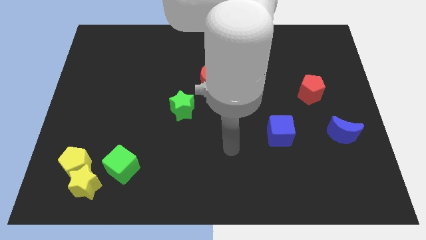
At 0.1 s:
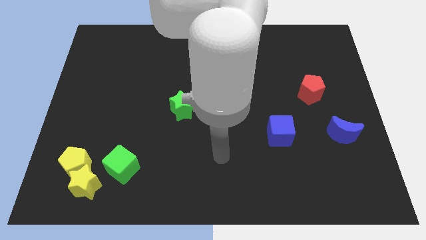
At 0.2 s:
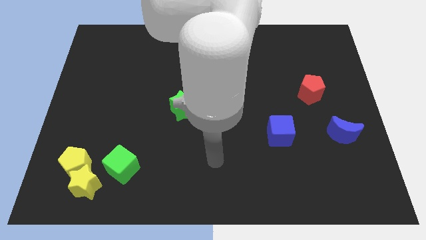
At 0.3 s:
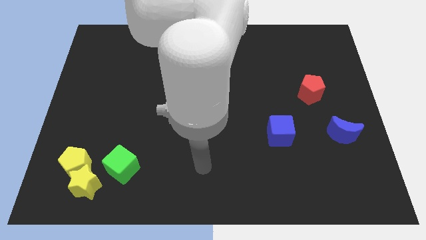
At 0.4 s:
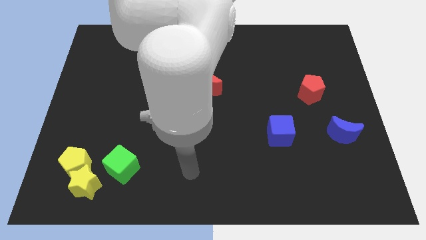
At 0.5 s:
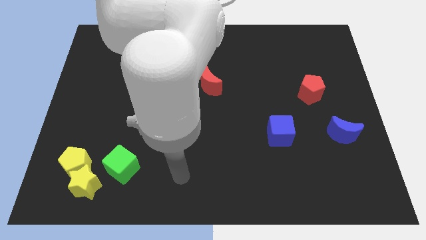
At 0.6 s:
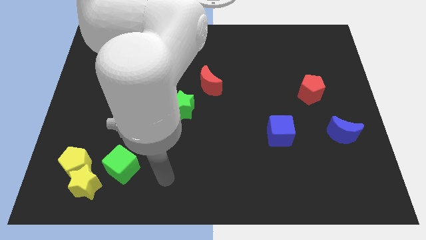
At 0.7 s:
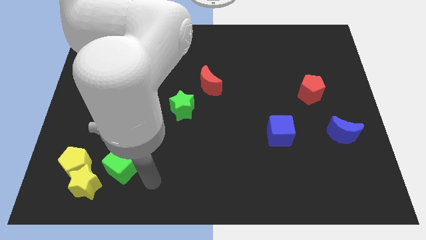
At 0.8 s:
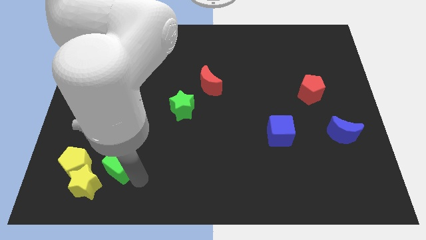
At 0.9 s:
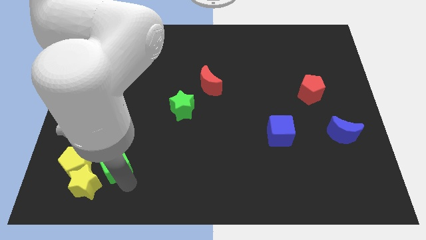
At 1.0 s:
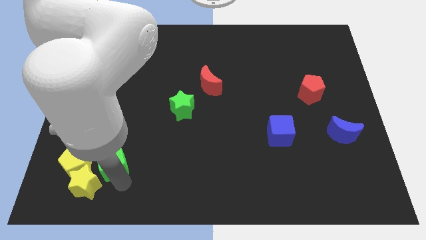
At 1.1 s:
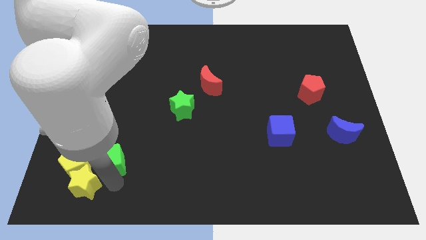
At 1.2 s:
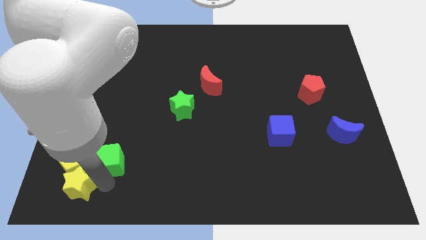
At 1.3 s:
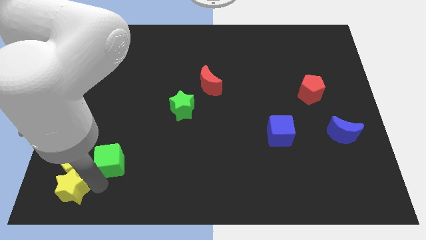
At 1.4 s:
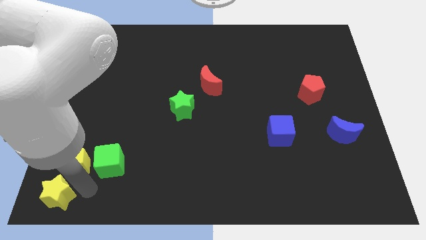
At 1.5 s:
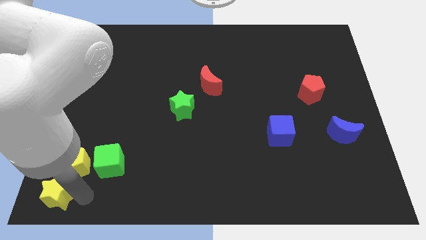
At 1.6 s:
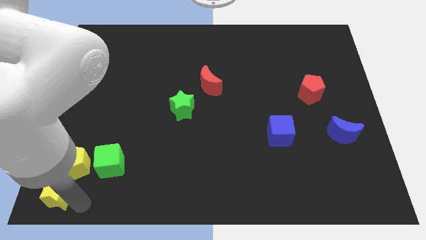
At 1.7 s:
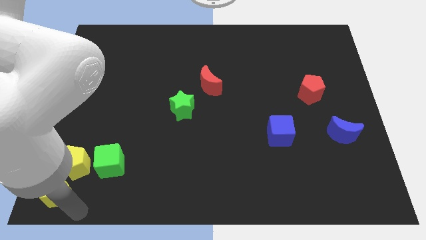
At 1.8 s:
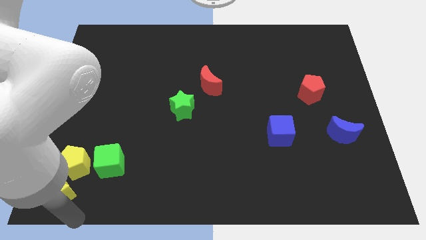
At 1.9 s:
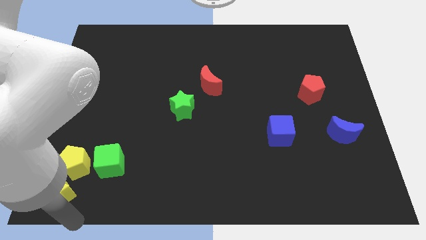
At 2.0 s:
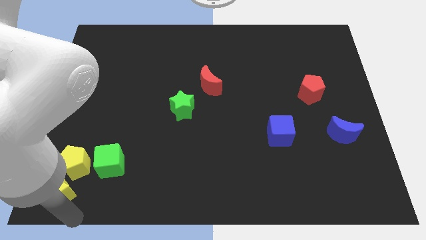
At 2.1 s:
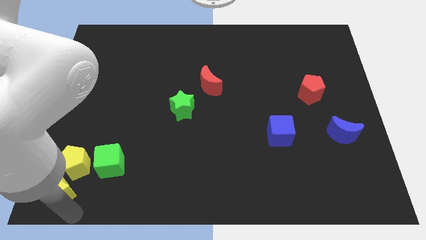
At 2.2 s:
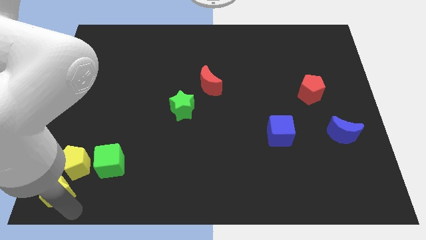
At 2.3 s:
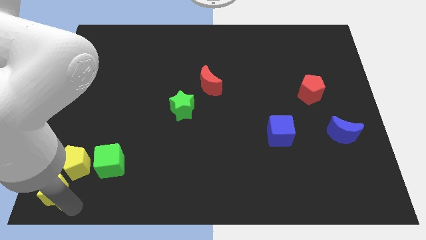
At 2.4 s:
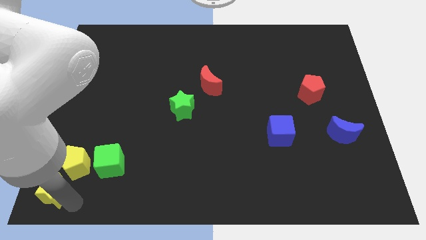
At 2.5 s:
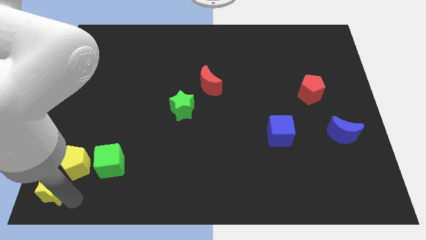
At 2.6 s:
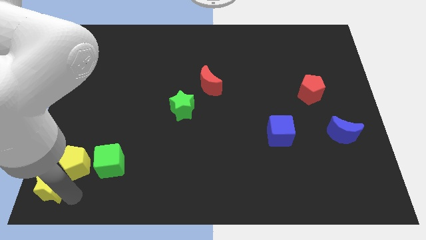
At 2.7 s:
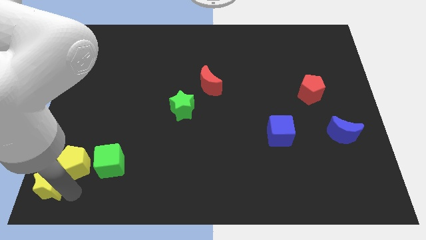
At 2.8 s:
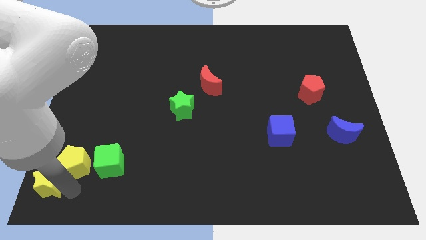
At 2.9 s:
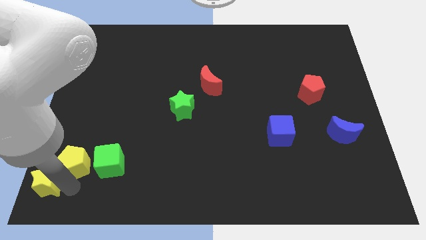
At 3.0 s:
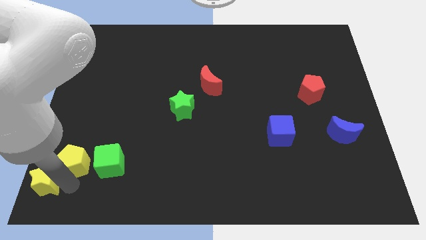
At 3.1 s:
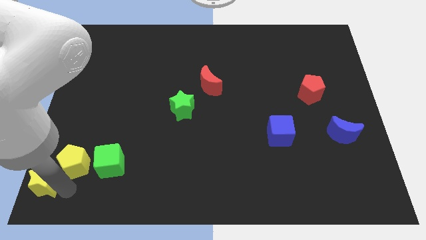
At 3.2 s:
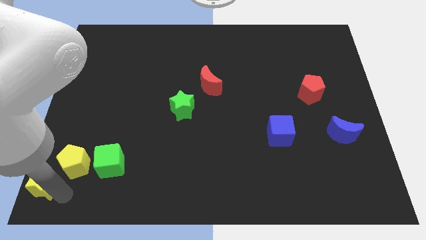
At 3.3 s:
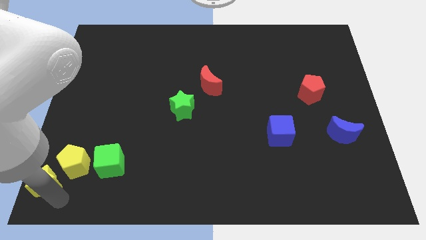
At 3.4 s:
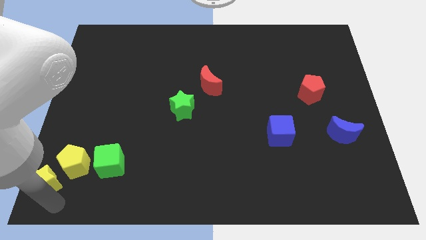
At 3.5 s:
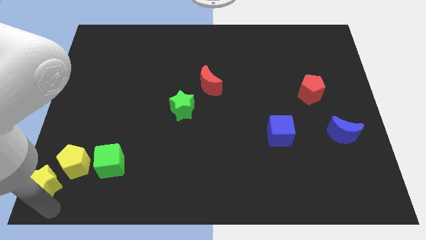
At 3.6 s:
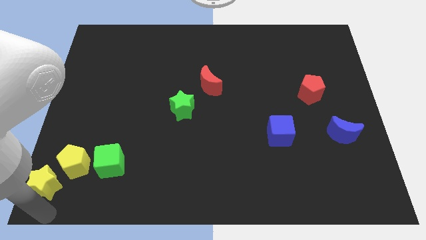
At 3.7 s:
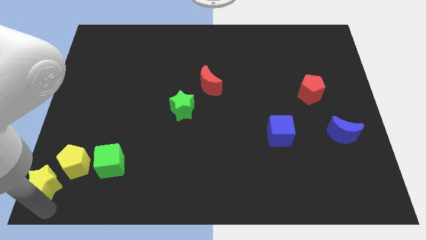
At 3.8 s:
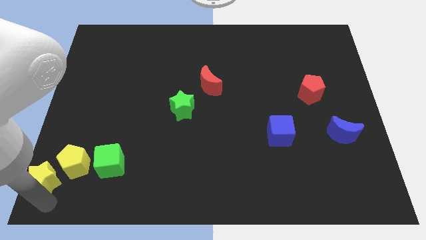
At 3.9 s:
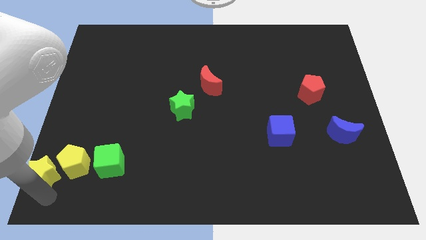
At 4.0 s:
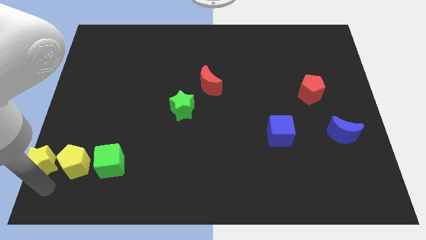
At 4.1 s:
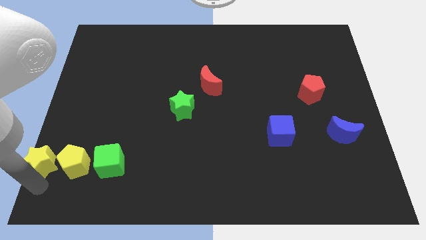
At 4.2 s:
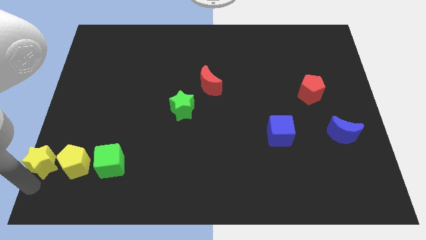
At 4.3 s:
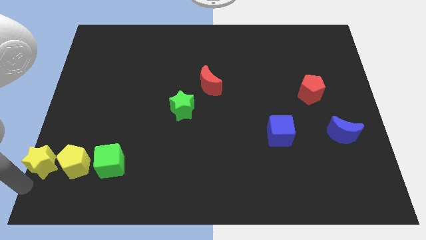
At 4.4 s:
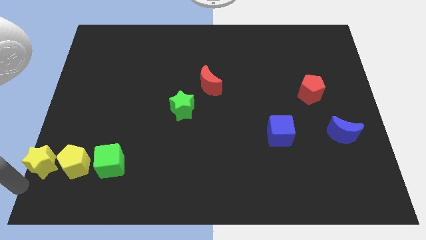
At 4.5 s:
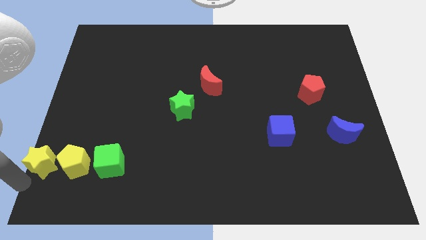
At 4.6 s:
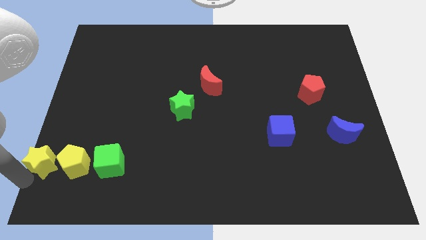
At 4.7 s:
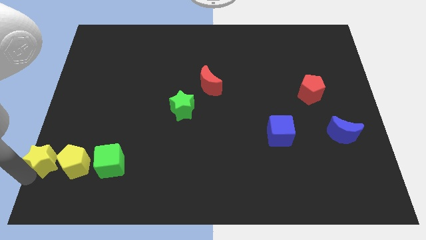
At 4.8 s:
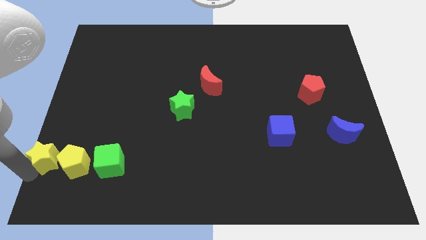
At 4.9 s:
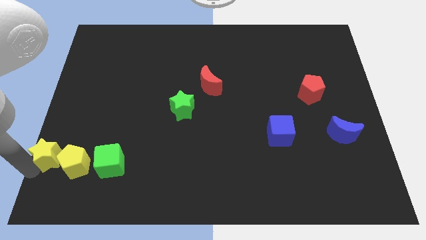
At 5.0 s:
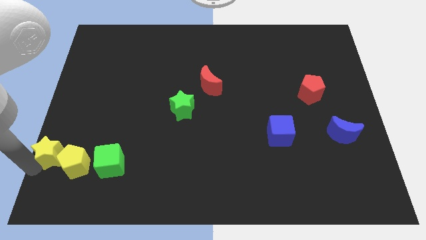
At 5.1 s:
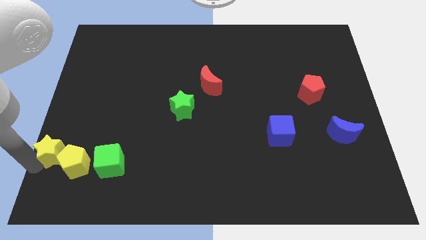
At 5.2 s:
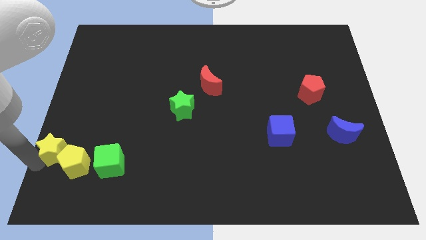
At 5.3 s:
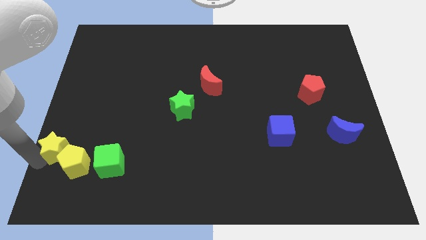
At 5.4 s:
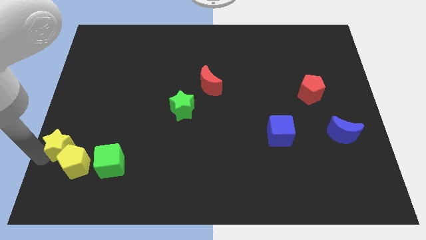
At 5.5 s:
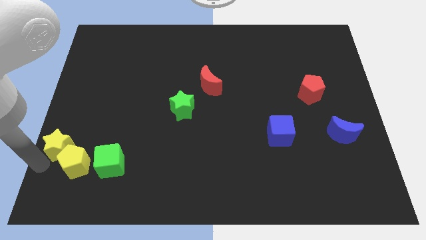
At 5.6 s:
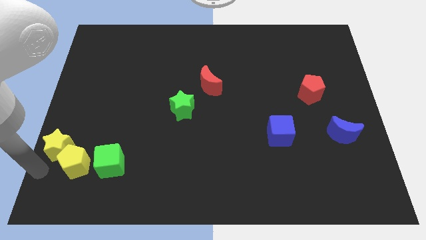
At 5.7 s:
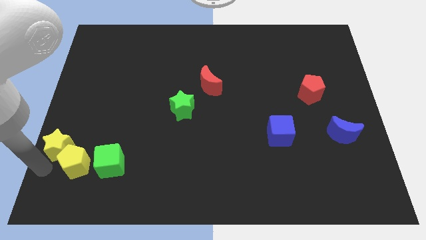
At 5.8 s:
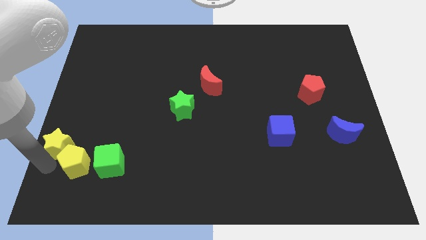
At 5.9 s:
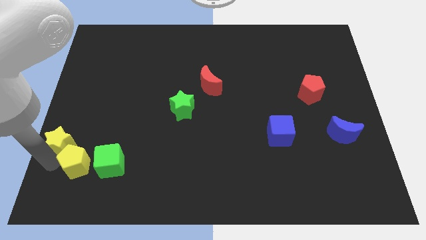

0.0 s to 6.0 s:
slightly slide the yellow star up

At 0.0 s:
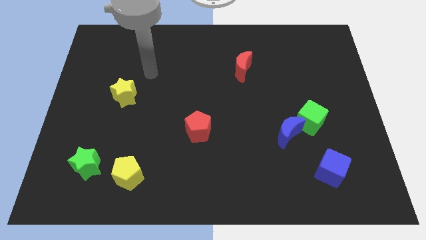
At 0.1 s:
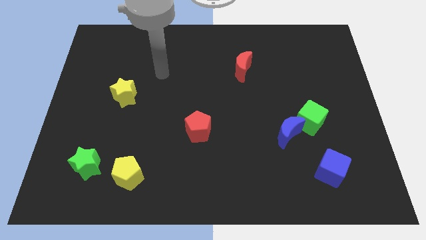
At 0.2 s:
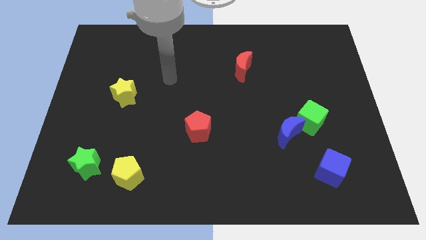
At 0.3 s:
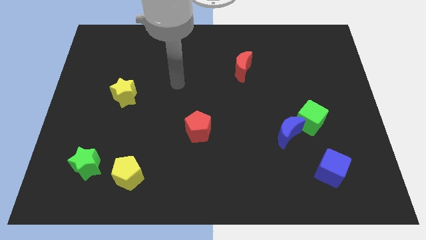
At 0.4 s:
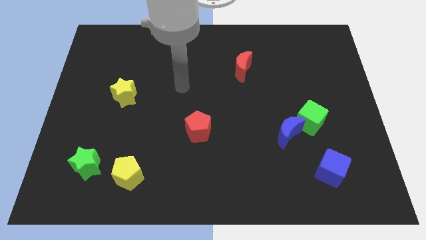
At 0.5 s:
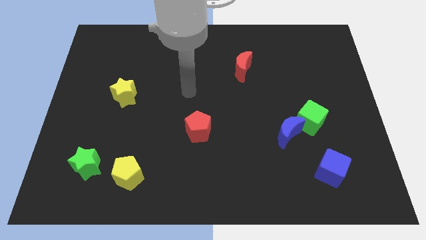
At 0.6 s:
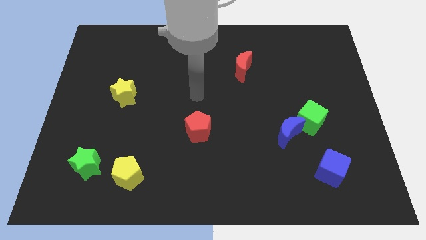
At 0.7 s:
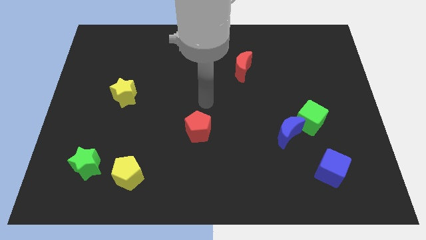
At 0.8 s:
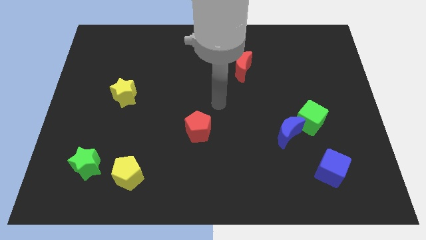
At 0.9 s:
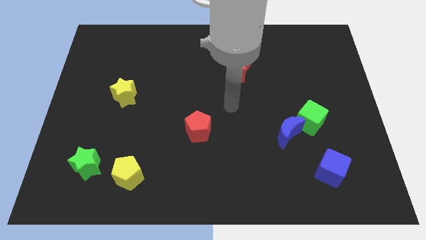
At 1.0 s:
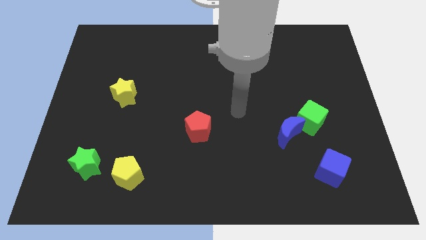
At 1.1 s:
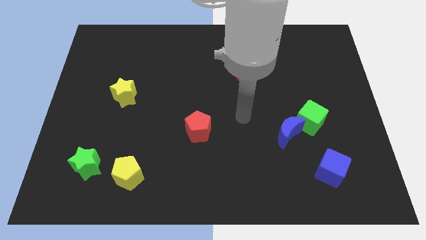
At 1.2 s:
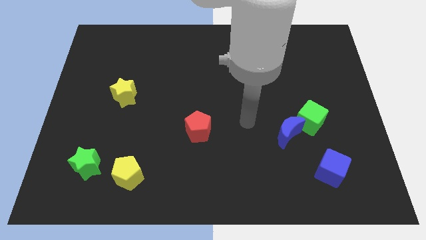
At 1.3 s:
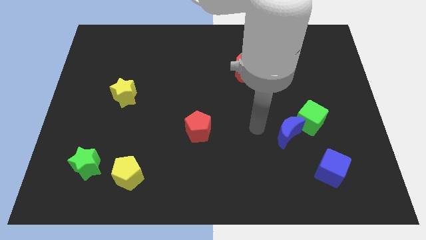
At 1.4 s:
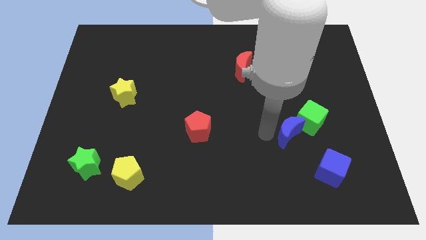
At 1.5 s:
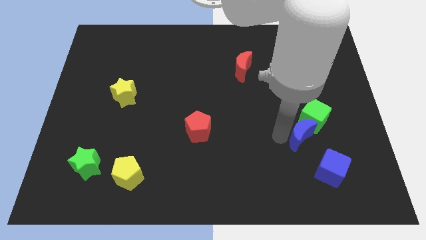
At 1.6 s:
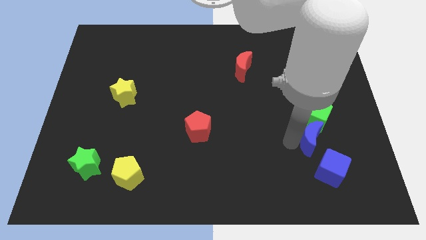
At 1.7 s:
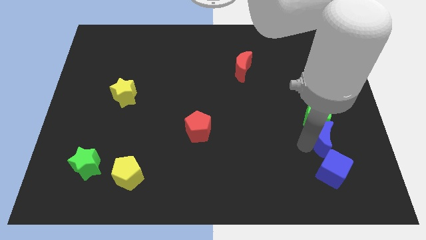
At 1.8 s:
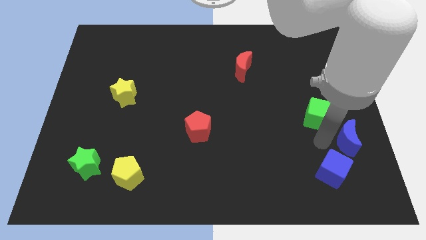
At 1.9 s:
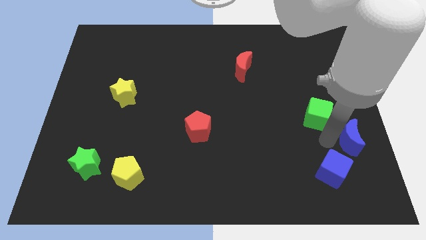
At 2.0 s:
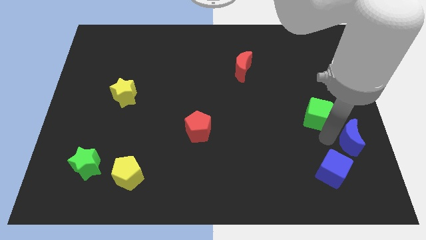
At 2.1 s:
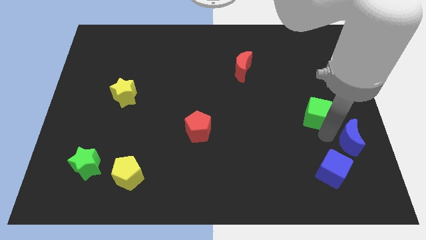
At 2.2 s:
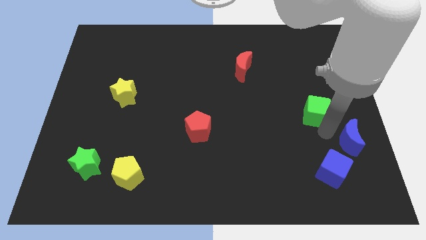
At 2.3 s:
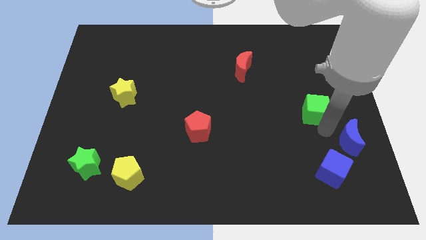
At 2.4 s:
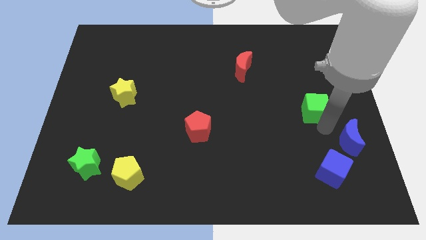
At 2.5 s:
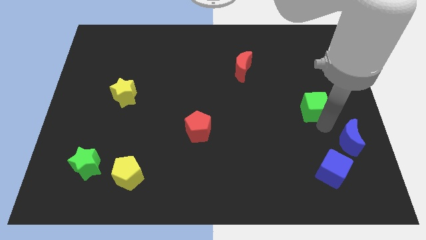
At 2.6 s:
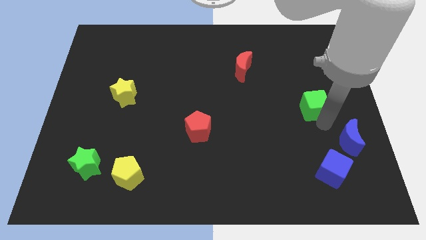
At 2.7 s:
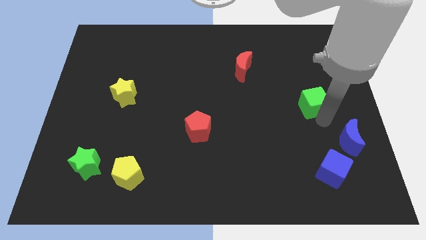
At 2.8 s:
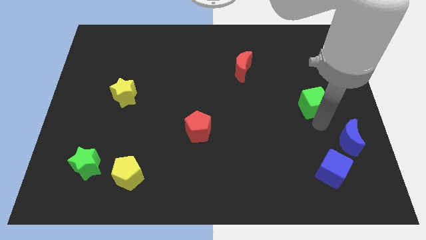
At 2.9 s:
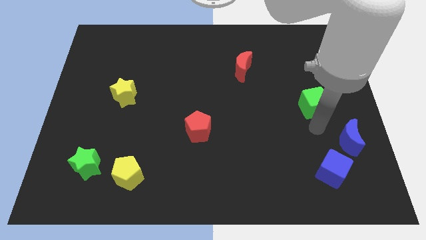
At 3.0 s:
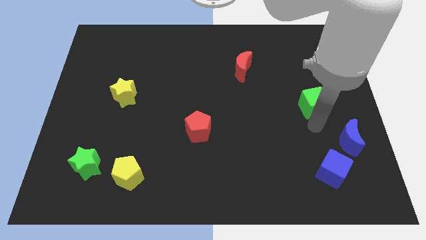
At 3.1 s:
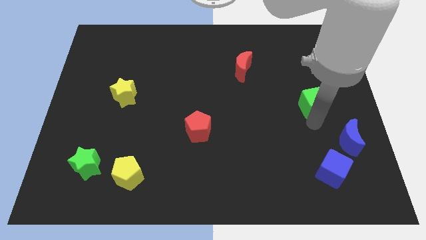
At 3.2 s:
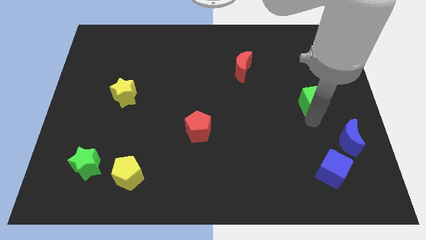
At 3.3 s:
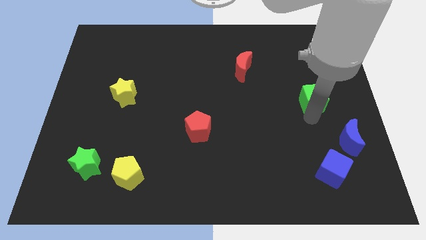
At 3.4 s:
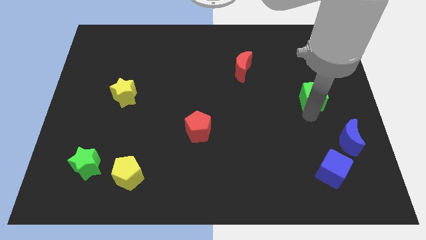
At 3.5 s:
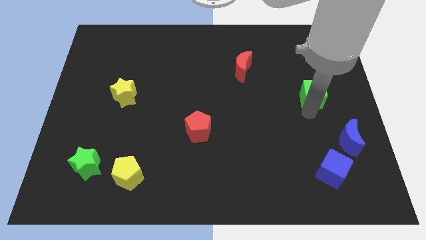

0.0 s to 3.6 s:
slightly push the green cube upwards
